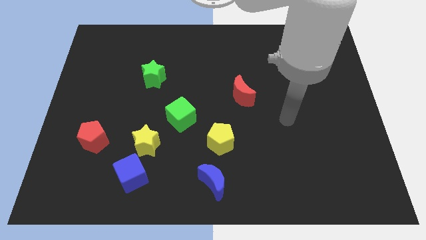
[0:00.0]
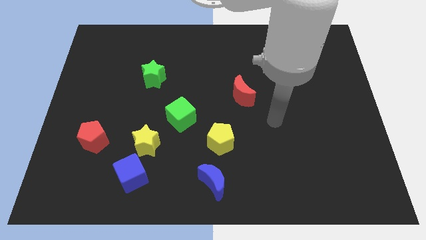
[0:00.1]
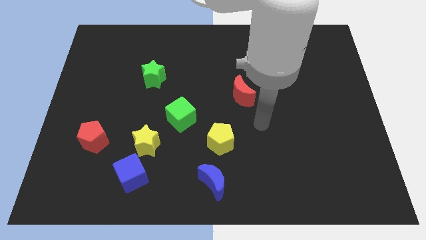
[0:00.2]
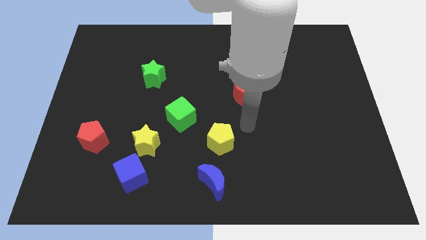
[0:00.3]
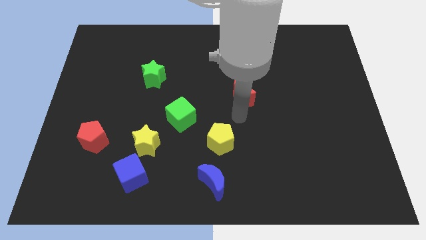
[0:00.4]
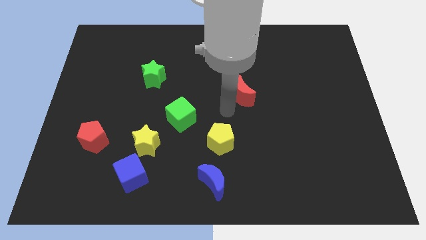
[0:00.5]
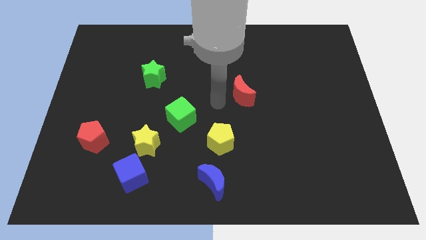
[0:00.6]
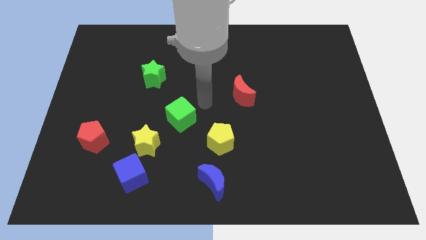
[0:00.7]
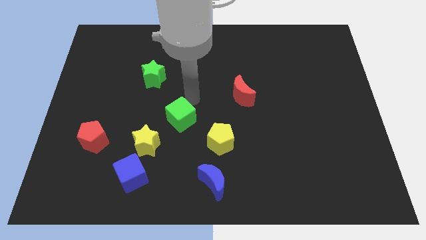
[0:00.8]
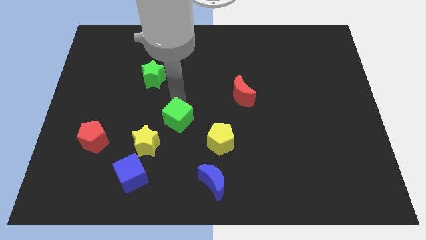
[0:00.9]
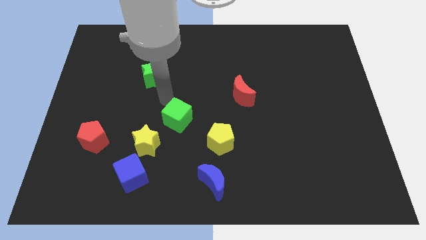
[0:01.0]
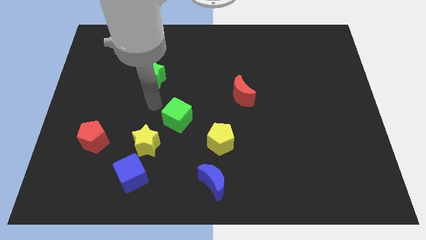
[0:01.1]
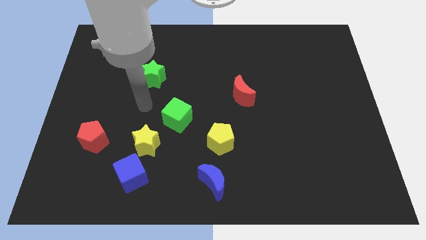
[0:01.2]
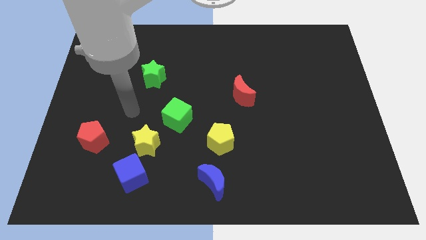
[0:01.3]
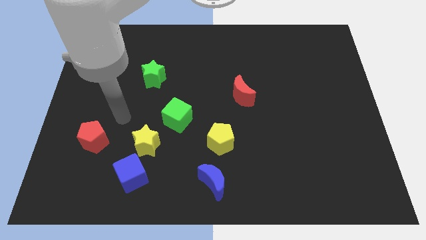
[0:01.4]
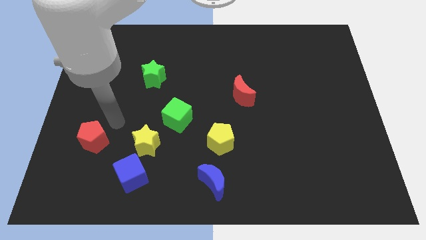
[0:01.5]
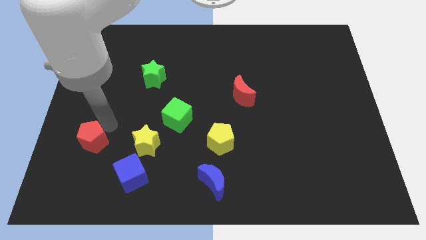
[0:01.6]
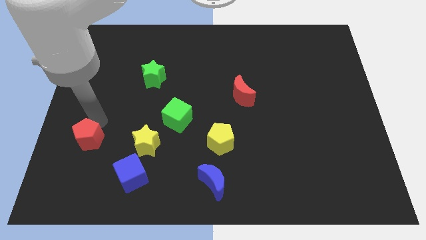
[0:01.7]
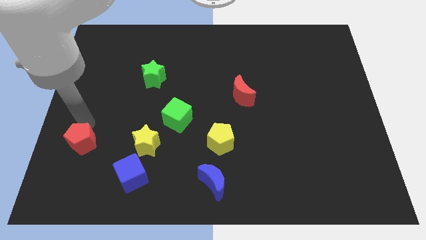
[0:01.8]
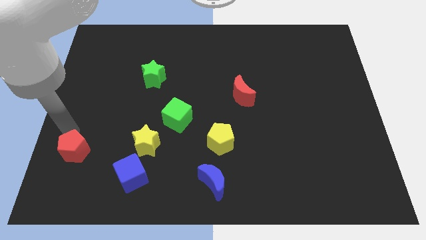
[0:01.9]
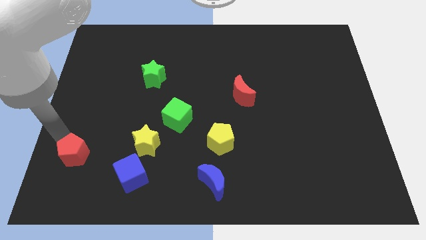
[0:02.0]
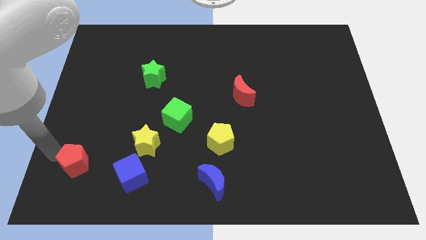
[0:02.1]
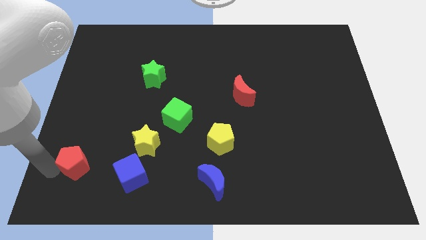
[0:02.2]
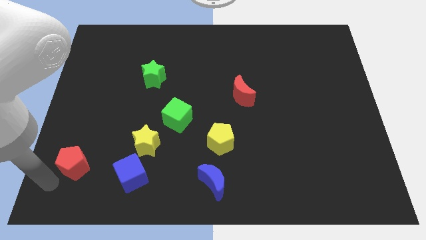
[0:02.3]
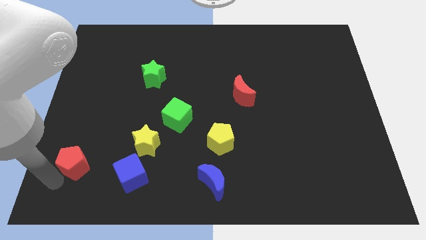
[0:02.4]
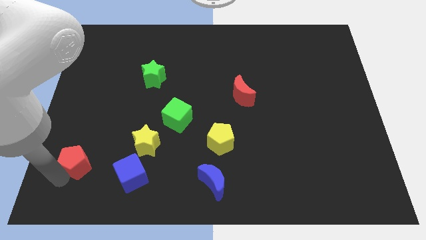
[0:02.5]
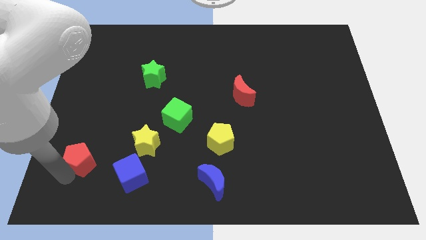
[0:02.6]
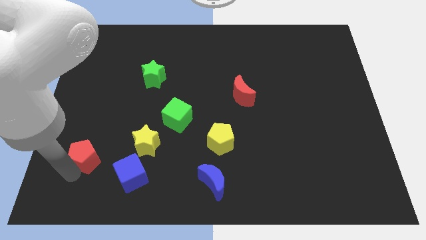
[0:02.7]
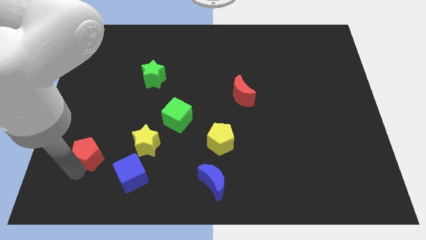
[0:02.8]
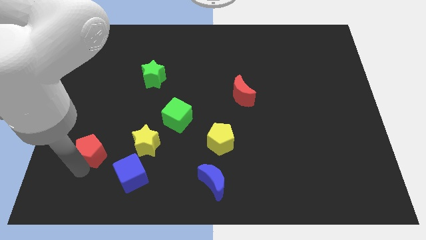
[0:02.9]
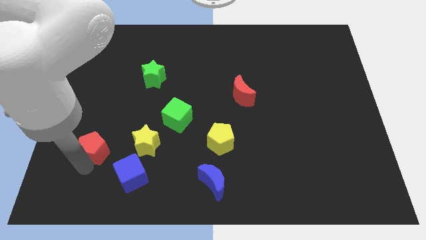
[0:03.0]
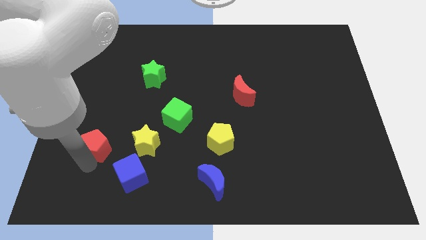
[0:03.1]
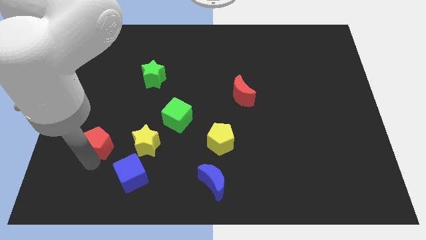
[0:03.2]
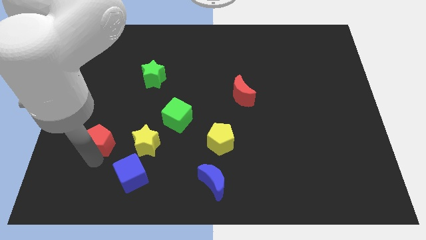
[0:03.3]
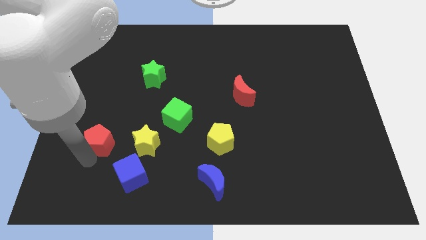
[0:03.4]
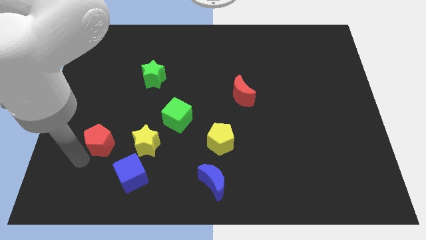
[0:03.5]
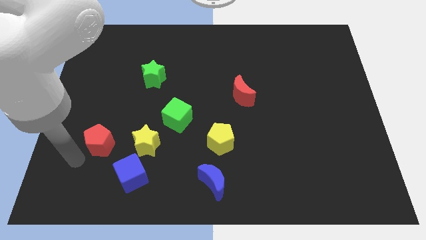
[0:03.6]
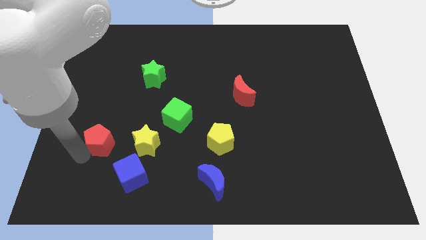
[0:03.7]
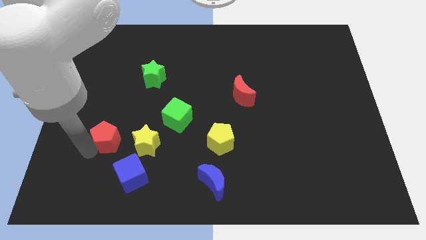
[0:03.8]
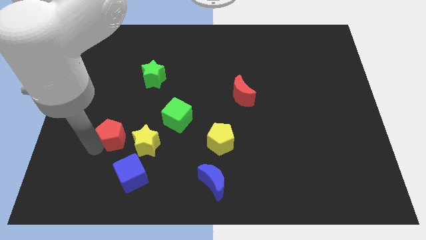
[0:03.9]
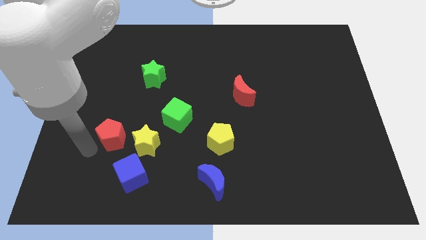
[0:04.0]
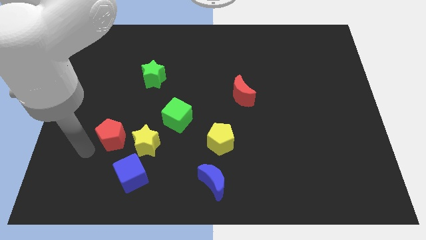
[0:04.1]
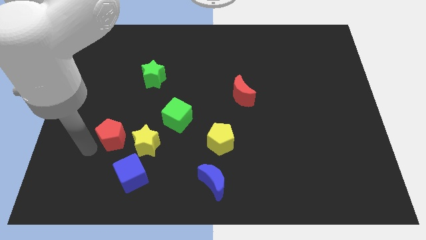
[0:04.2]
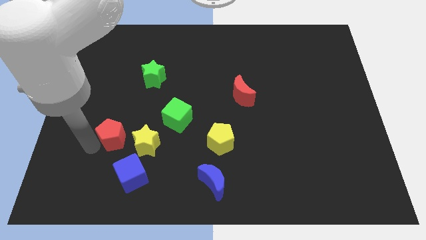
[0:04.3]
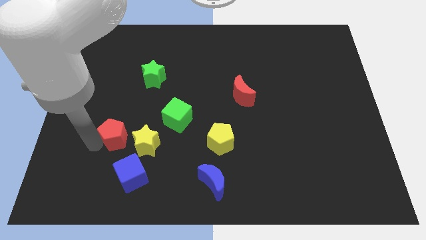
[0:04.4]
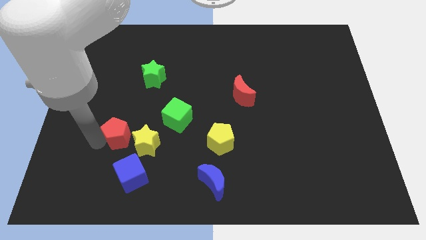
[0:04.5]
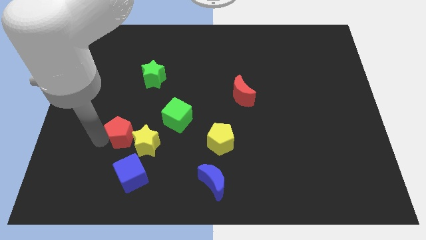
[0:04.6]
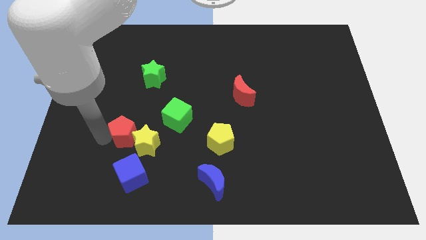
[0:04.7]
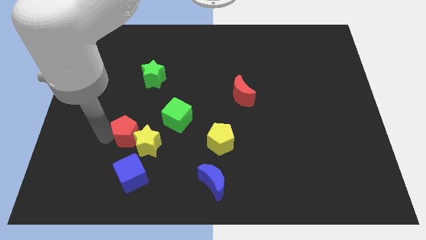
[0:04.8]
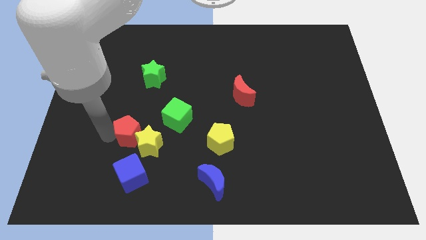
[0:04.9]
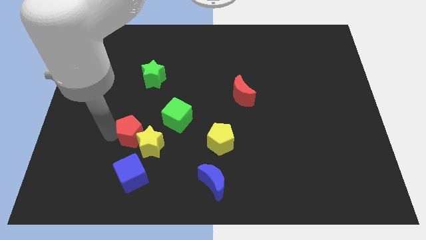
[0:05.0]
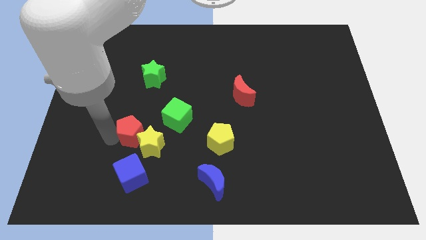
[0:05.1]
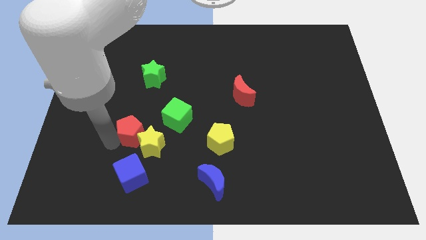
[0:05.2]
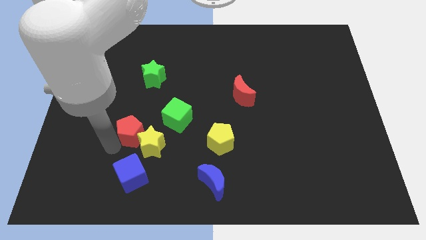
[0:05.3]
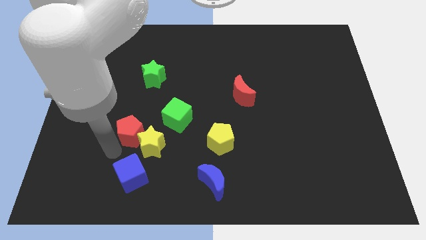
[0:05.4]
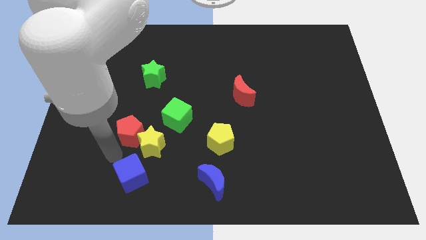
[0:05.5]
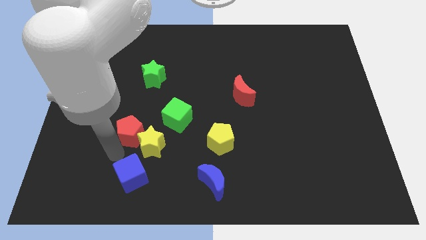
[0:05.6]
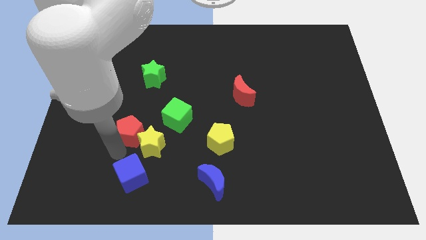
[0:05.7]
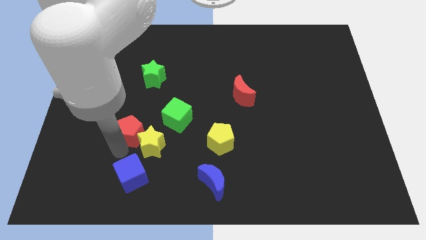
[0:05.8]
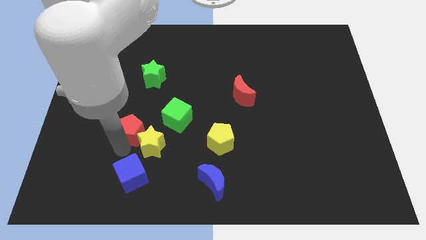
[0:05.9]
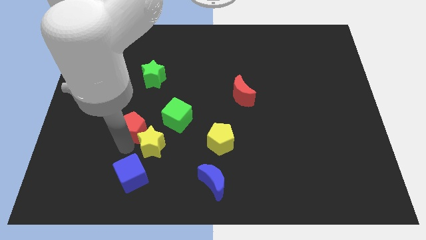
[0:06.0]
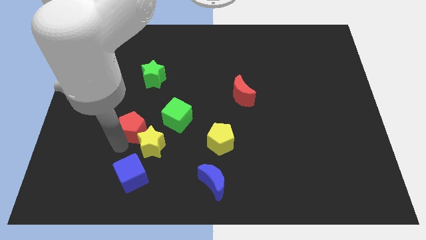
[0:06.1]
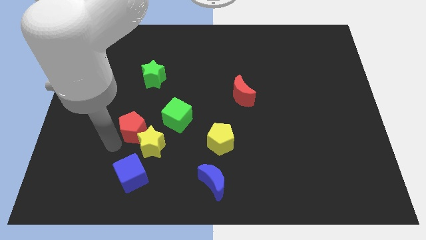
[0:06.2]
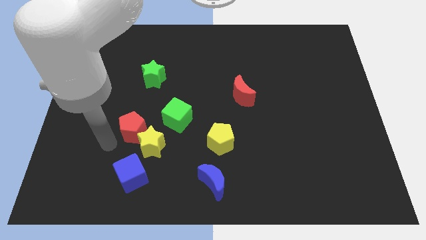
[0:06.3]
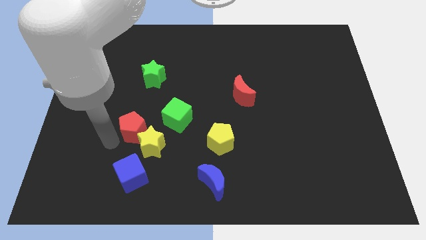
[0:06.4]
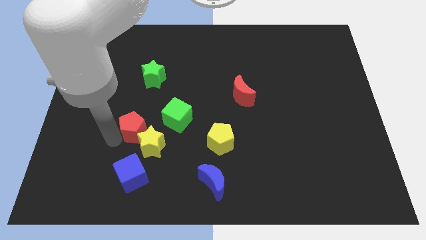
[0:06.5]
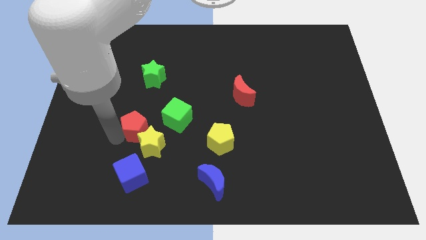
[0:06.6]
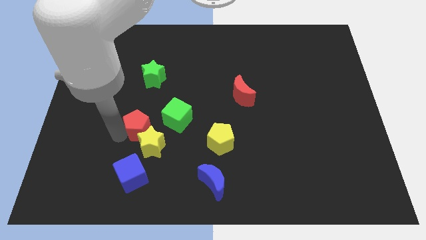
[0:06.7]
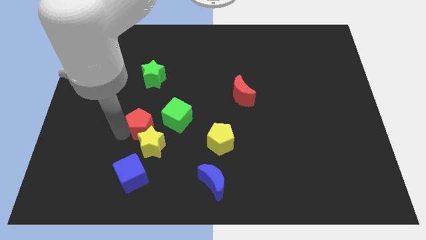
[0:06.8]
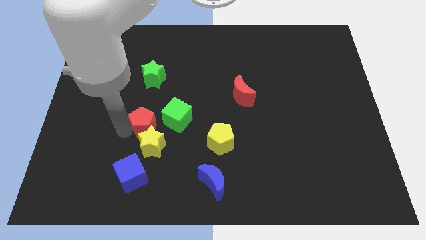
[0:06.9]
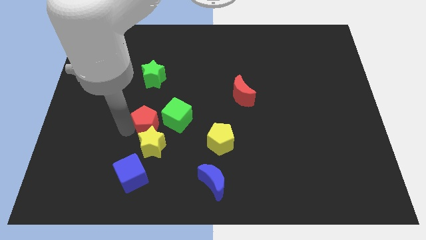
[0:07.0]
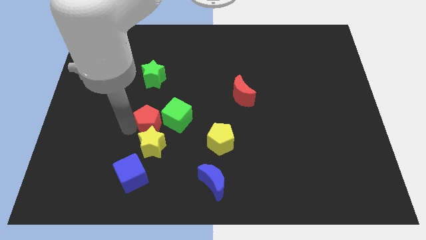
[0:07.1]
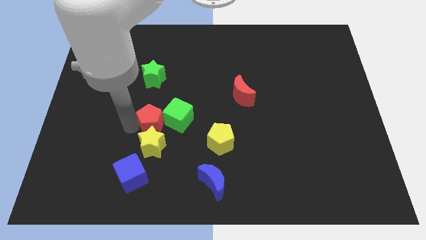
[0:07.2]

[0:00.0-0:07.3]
push the red pentagon towards the green cube
